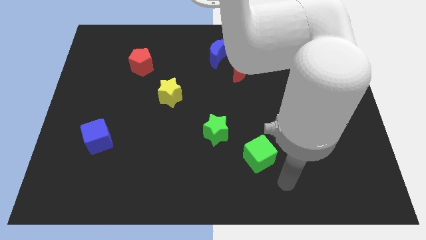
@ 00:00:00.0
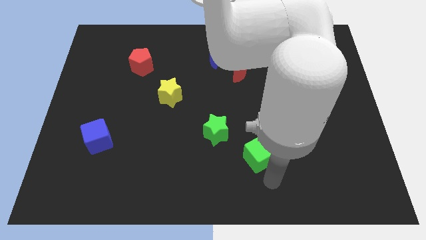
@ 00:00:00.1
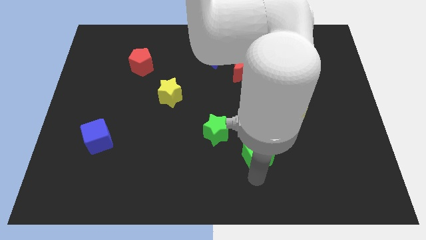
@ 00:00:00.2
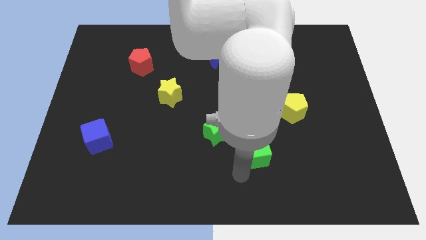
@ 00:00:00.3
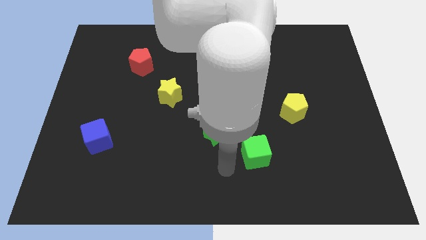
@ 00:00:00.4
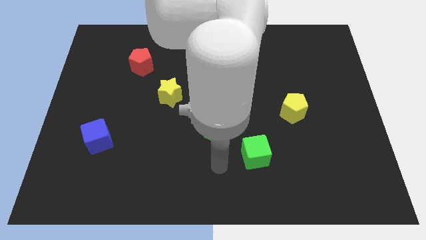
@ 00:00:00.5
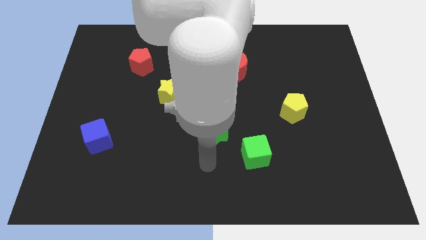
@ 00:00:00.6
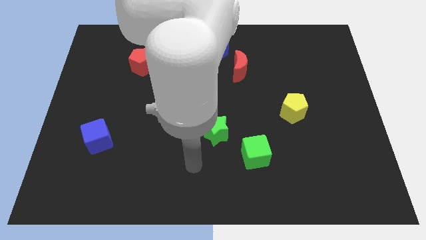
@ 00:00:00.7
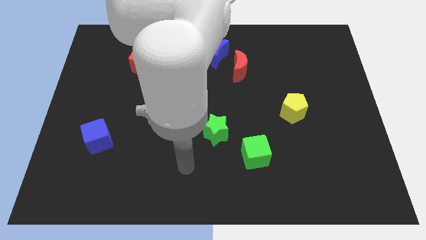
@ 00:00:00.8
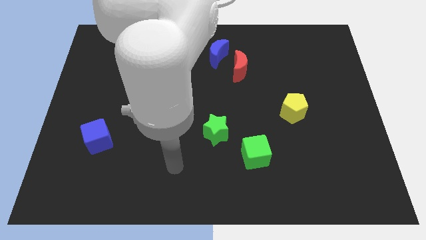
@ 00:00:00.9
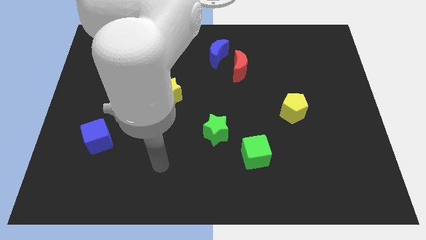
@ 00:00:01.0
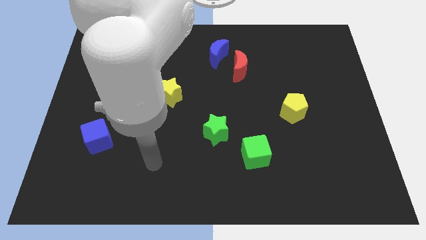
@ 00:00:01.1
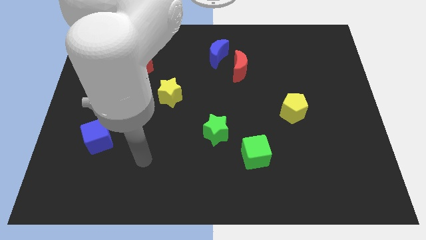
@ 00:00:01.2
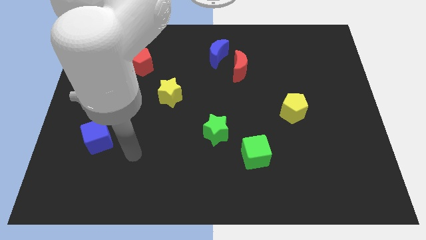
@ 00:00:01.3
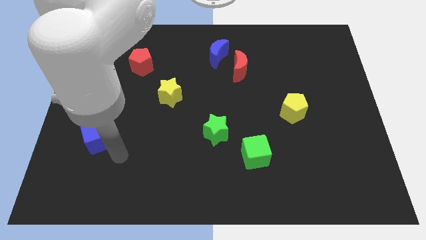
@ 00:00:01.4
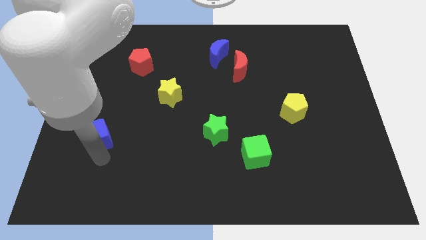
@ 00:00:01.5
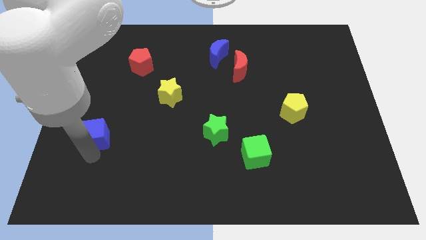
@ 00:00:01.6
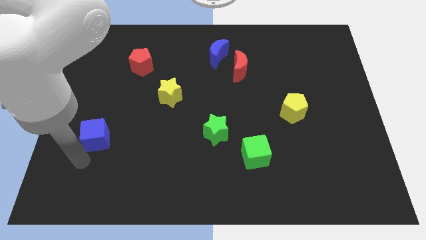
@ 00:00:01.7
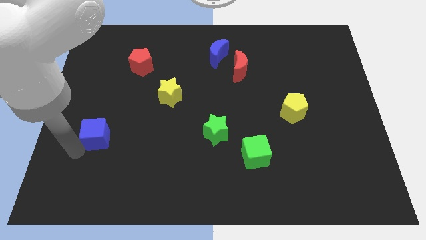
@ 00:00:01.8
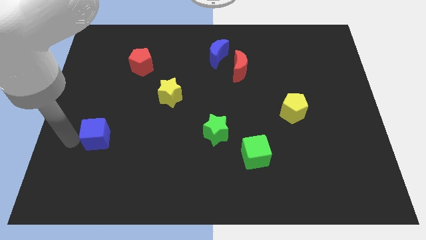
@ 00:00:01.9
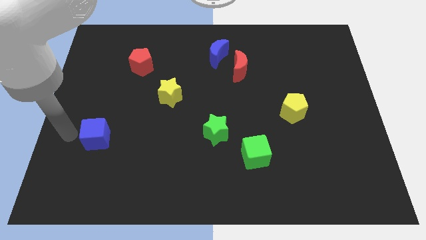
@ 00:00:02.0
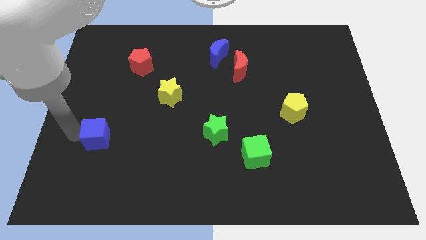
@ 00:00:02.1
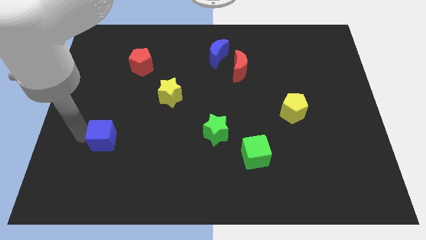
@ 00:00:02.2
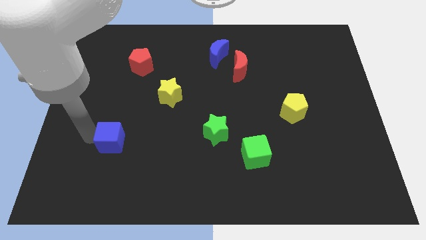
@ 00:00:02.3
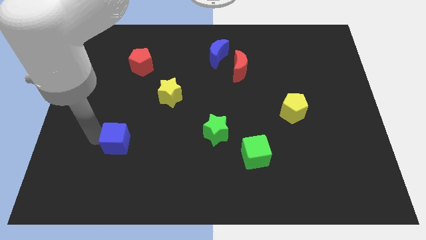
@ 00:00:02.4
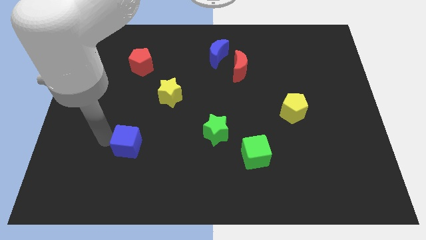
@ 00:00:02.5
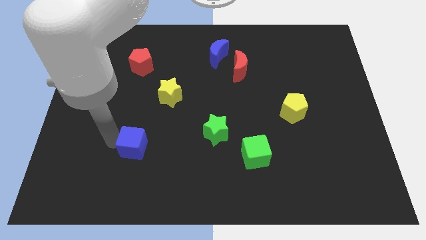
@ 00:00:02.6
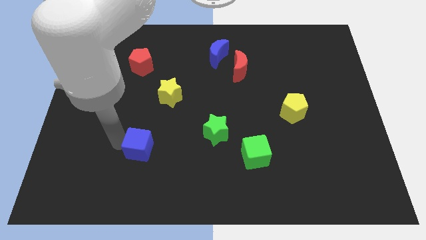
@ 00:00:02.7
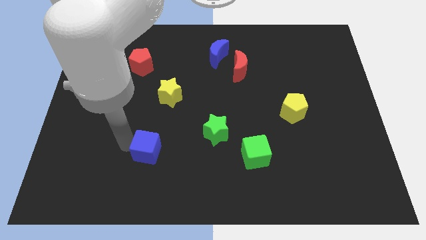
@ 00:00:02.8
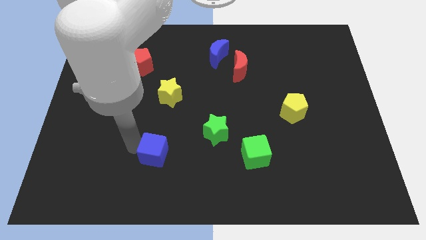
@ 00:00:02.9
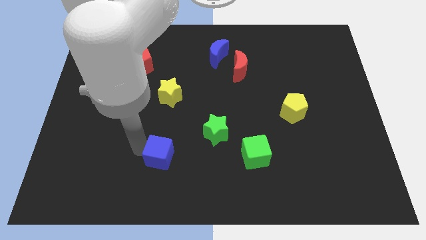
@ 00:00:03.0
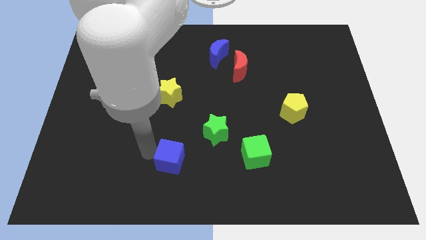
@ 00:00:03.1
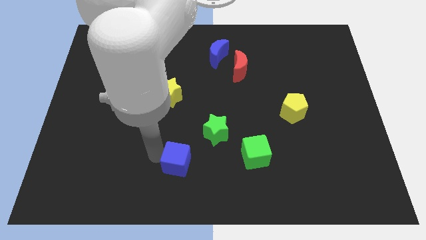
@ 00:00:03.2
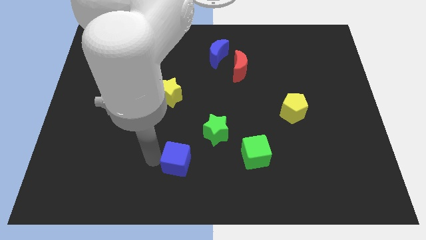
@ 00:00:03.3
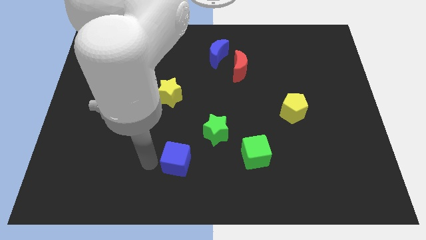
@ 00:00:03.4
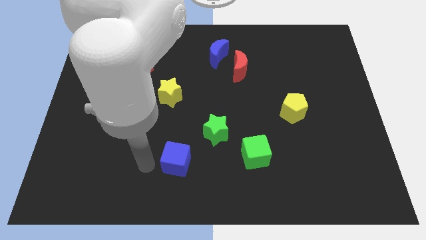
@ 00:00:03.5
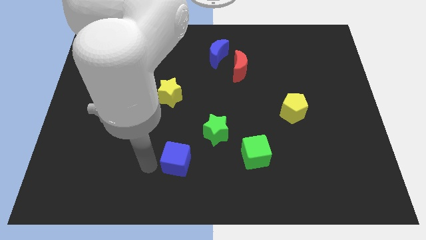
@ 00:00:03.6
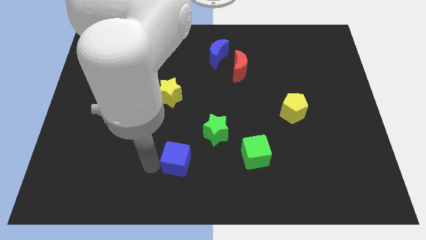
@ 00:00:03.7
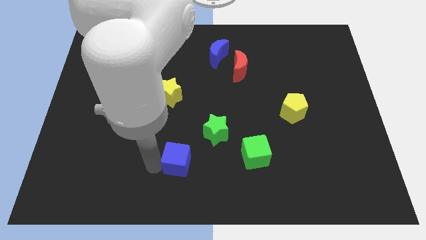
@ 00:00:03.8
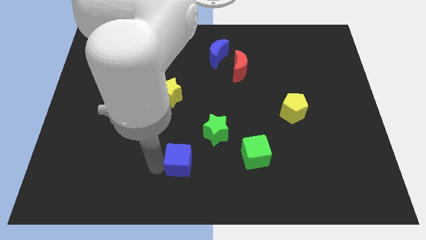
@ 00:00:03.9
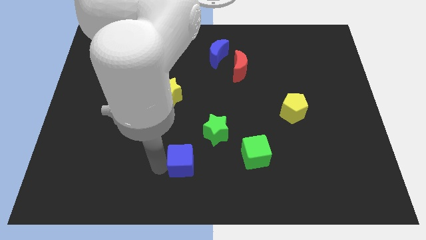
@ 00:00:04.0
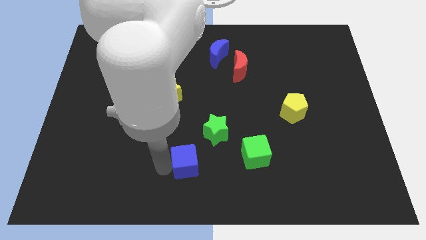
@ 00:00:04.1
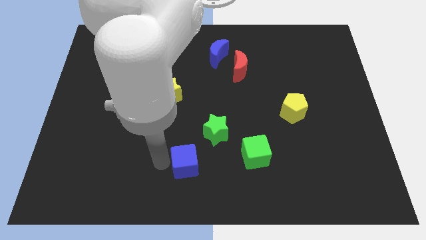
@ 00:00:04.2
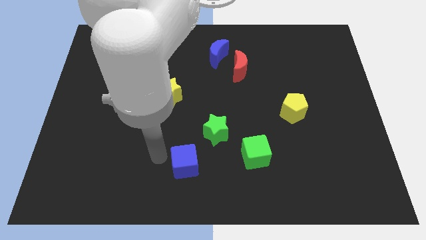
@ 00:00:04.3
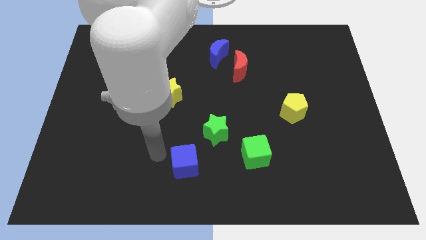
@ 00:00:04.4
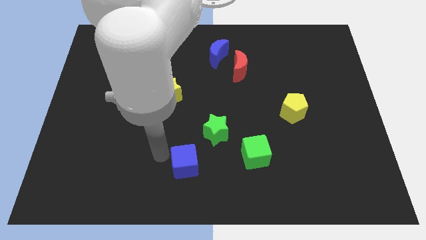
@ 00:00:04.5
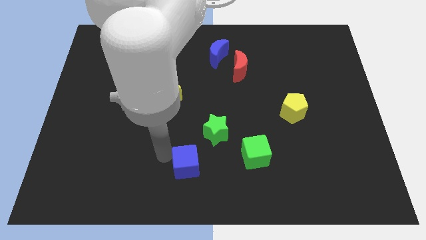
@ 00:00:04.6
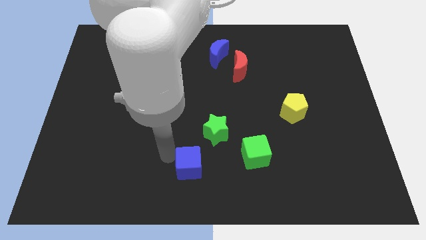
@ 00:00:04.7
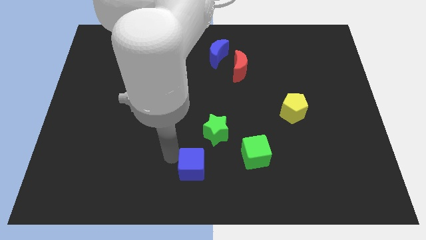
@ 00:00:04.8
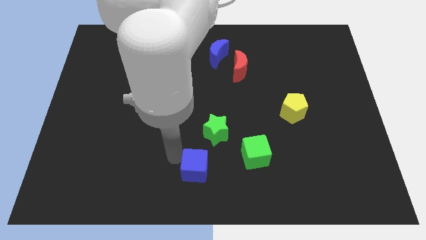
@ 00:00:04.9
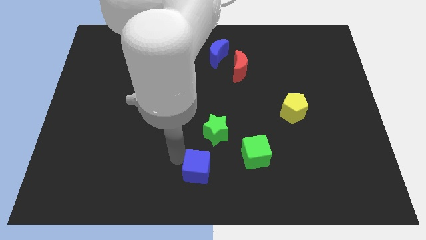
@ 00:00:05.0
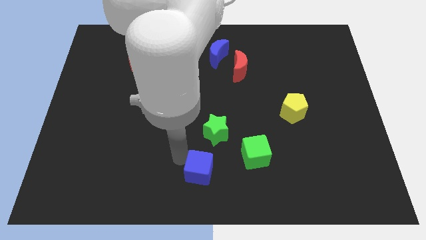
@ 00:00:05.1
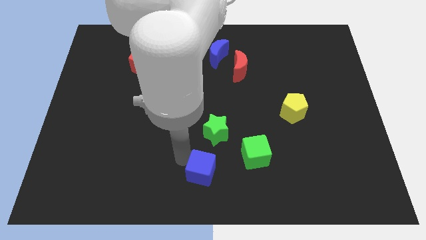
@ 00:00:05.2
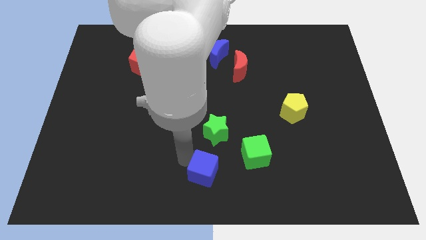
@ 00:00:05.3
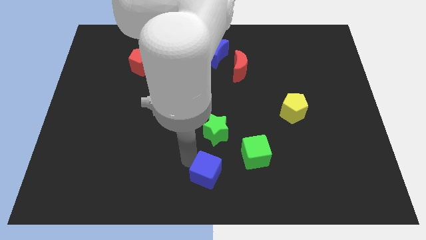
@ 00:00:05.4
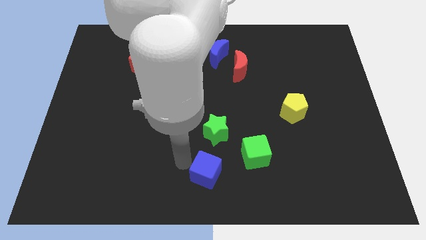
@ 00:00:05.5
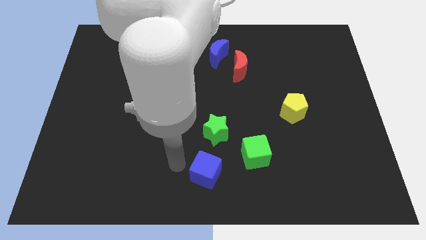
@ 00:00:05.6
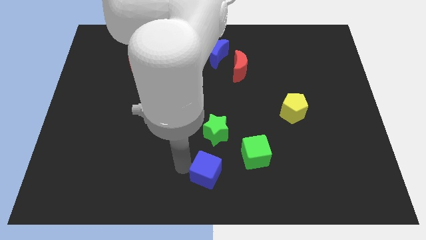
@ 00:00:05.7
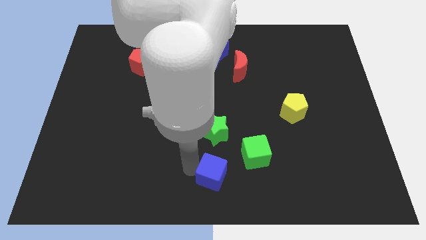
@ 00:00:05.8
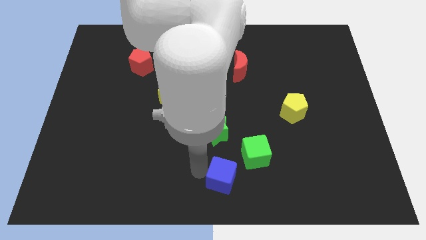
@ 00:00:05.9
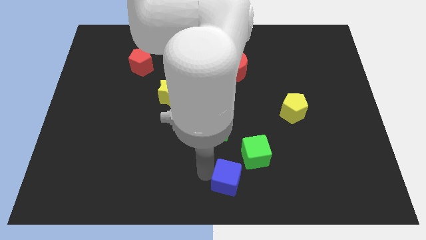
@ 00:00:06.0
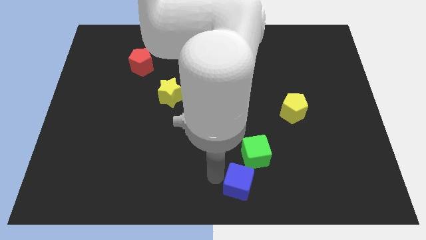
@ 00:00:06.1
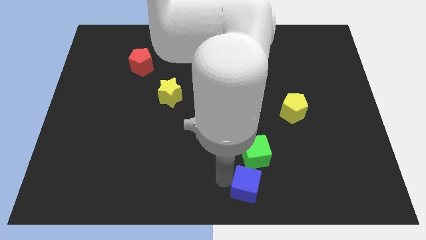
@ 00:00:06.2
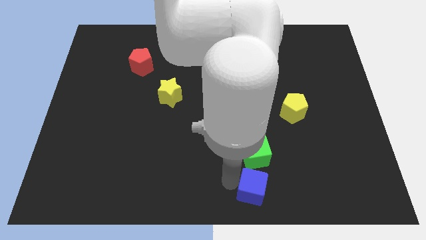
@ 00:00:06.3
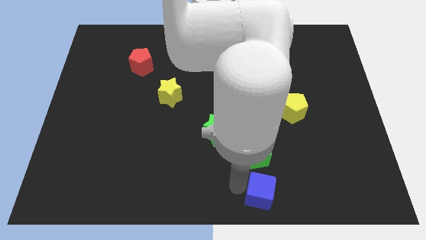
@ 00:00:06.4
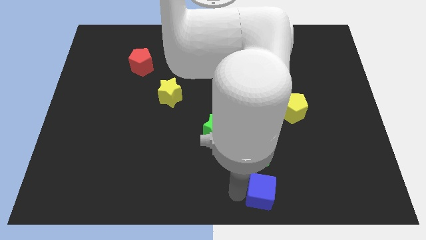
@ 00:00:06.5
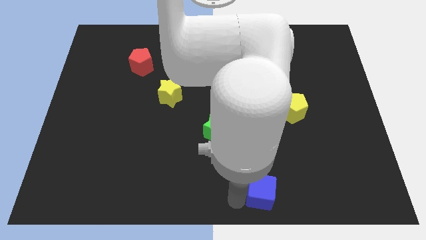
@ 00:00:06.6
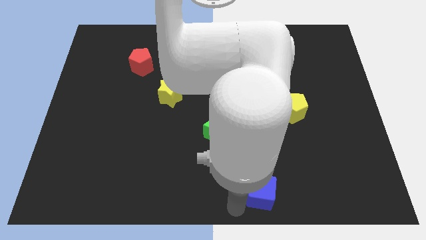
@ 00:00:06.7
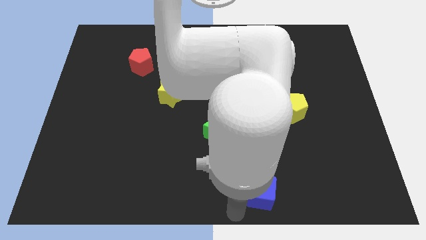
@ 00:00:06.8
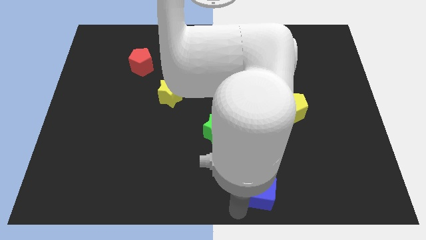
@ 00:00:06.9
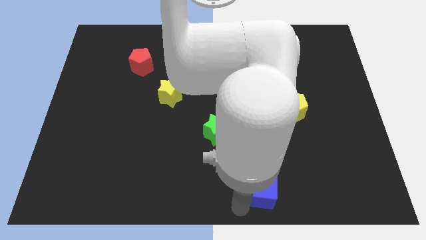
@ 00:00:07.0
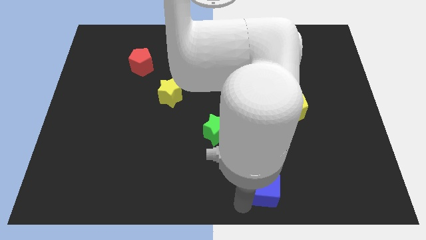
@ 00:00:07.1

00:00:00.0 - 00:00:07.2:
move the blue cube diagonally down and to the right of the green cube

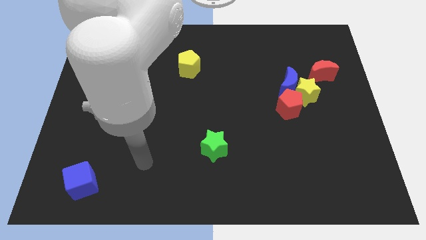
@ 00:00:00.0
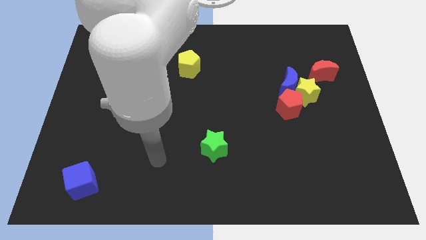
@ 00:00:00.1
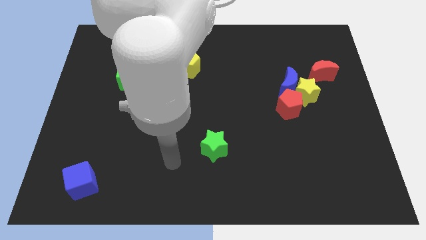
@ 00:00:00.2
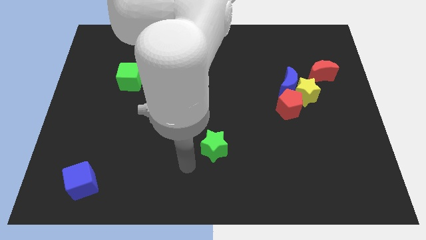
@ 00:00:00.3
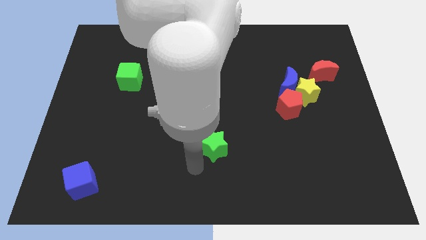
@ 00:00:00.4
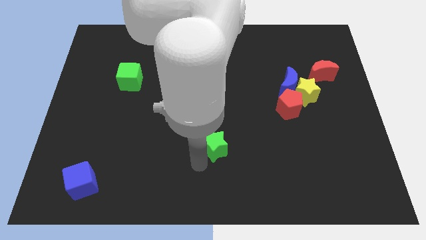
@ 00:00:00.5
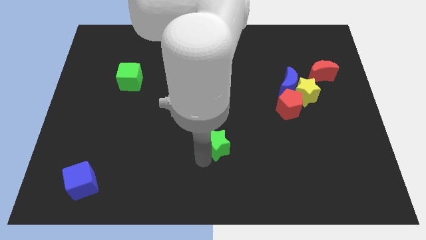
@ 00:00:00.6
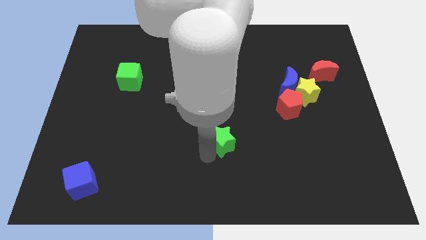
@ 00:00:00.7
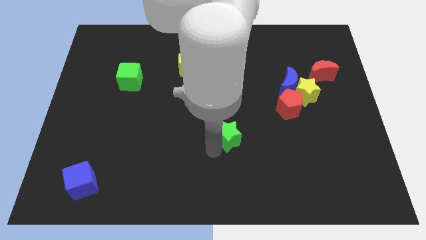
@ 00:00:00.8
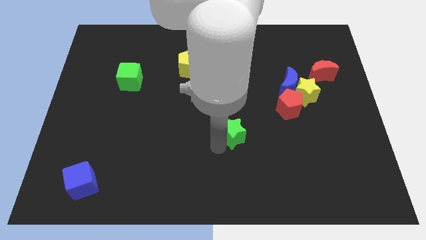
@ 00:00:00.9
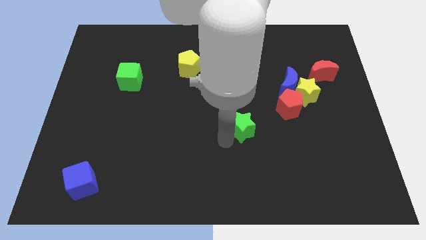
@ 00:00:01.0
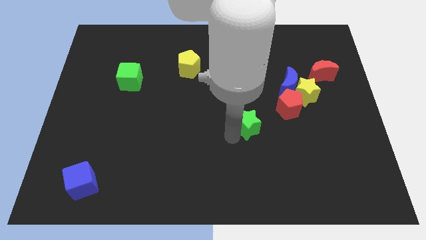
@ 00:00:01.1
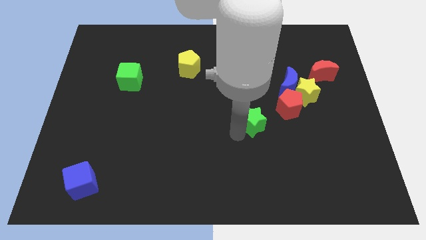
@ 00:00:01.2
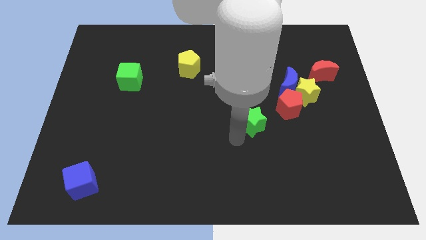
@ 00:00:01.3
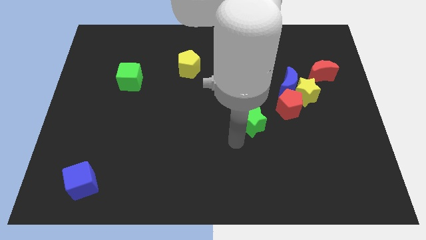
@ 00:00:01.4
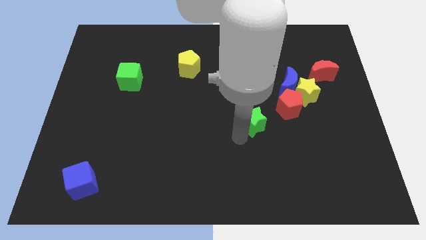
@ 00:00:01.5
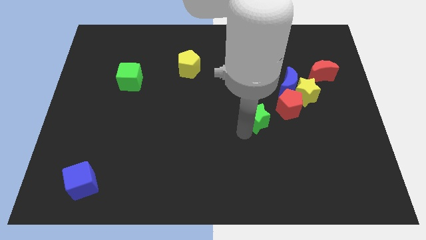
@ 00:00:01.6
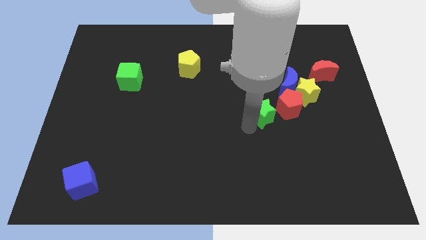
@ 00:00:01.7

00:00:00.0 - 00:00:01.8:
move the green star to the bottom left side of the blue moon
